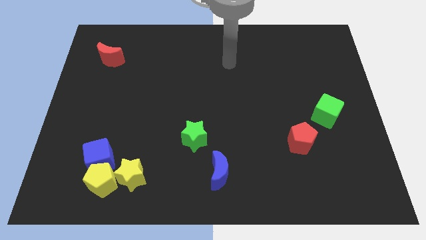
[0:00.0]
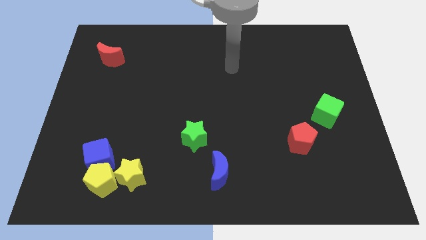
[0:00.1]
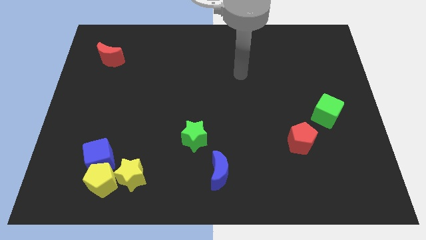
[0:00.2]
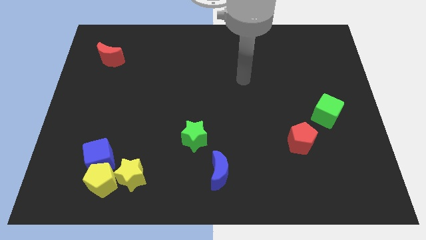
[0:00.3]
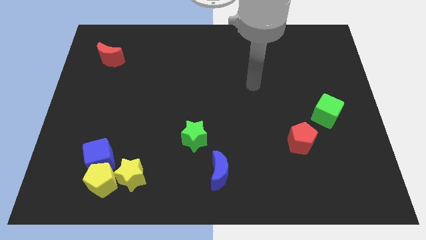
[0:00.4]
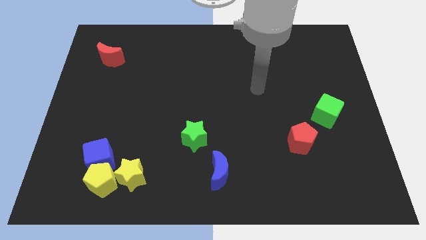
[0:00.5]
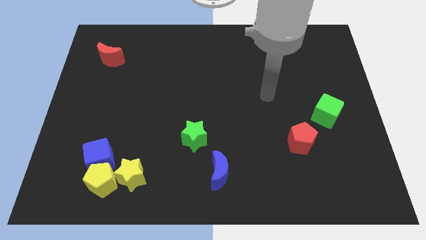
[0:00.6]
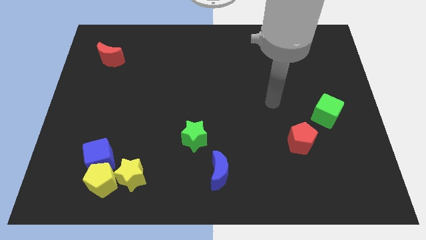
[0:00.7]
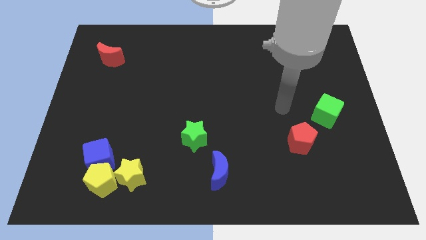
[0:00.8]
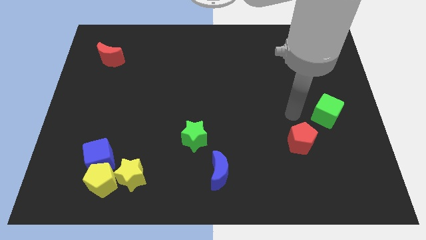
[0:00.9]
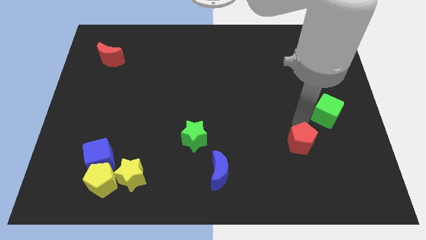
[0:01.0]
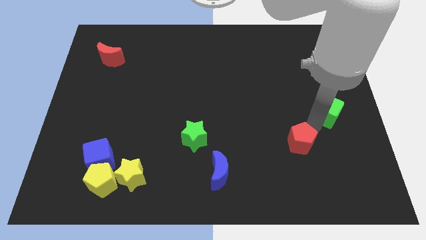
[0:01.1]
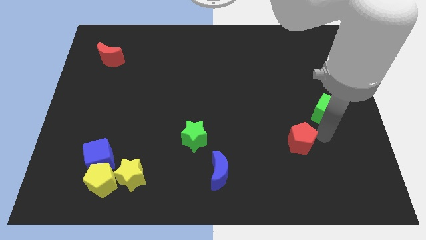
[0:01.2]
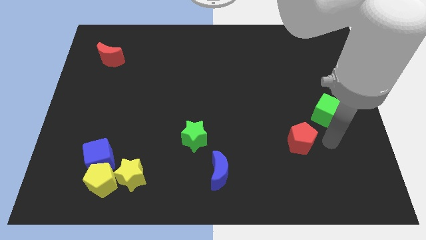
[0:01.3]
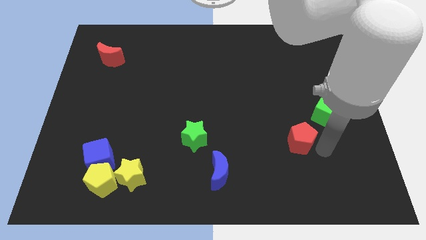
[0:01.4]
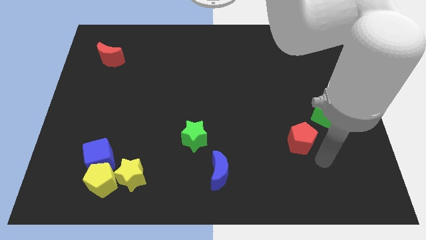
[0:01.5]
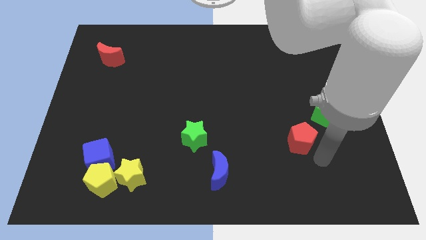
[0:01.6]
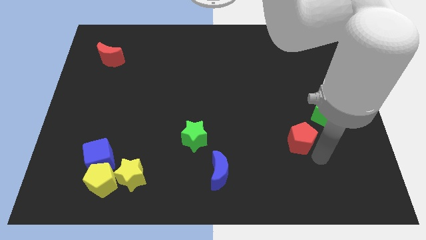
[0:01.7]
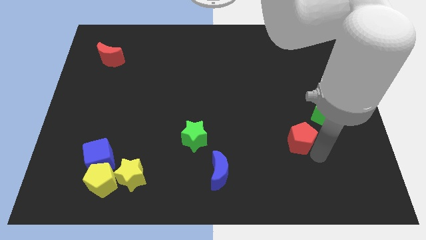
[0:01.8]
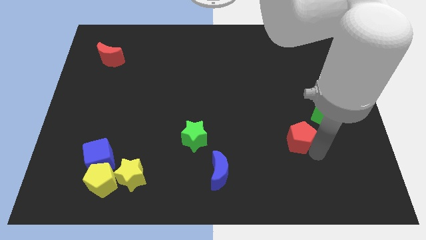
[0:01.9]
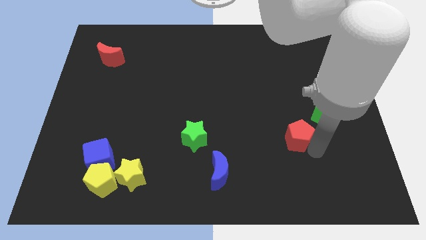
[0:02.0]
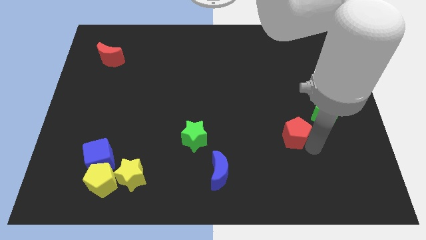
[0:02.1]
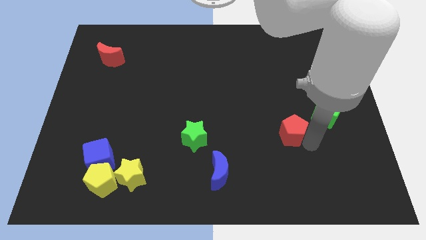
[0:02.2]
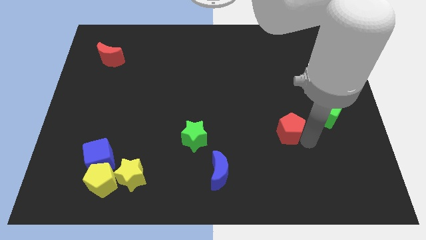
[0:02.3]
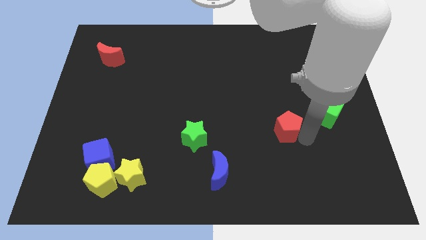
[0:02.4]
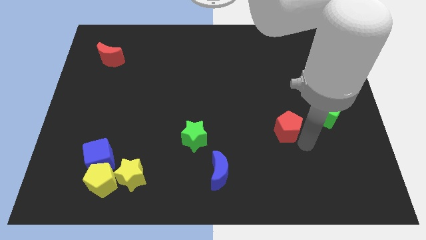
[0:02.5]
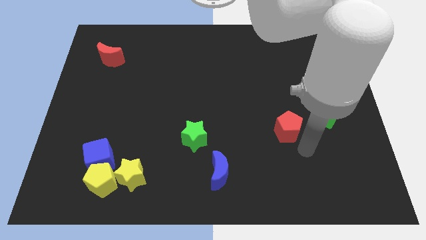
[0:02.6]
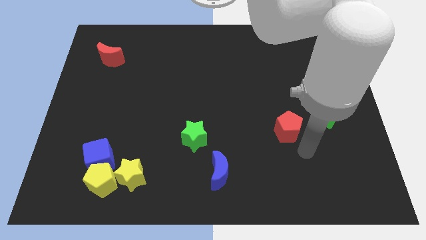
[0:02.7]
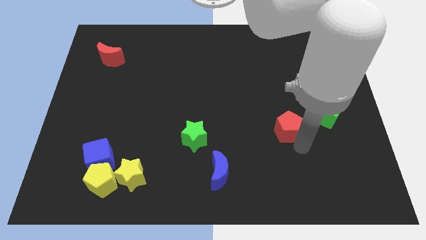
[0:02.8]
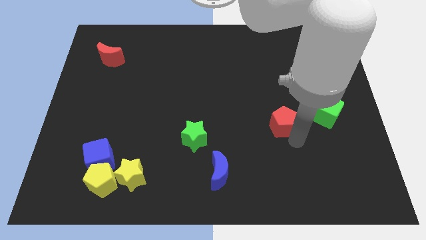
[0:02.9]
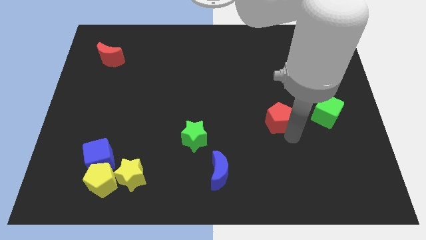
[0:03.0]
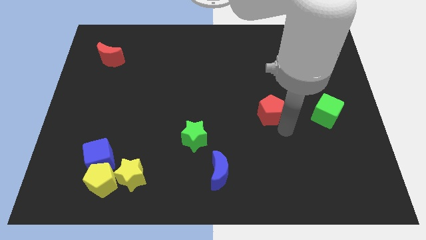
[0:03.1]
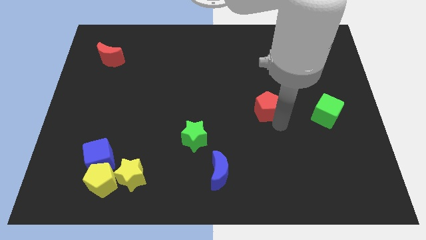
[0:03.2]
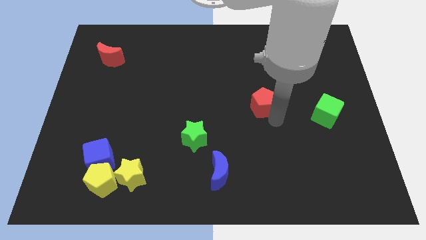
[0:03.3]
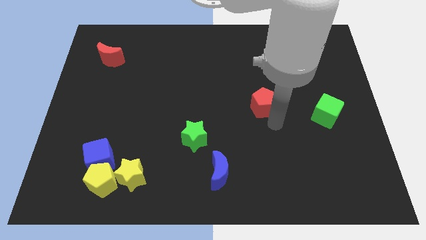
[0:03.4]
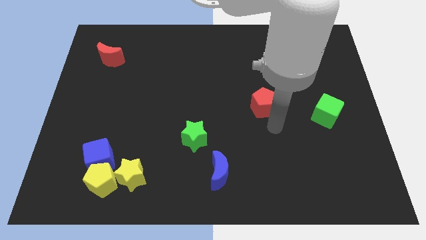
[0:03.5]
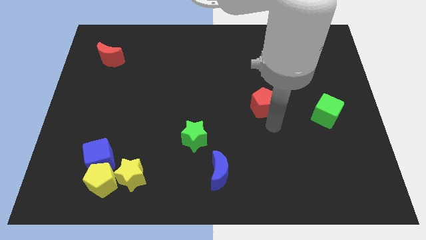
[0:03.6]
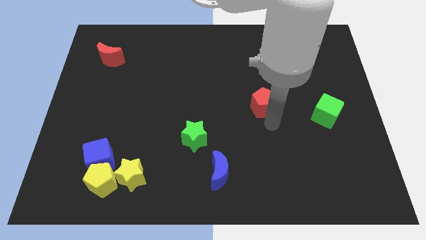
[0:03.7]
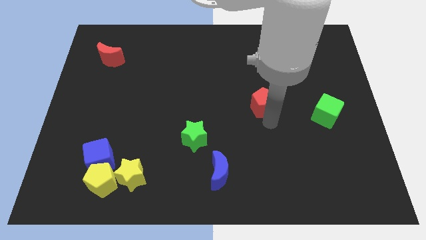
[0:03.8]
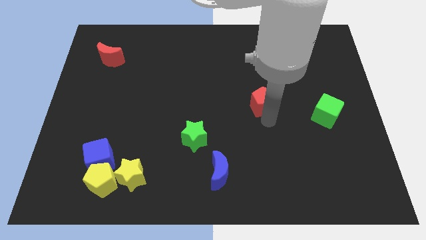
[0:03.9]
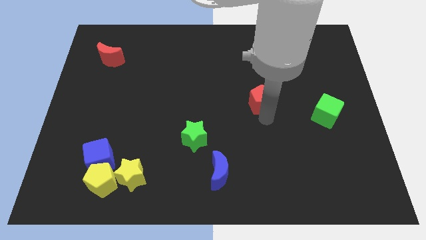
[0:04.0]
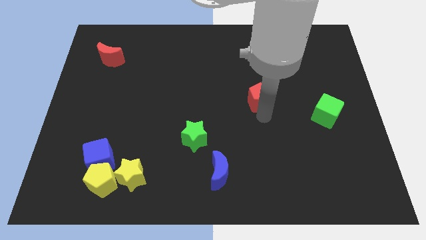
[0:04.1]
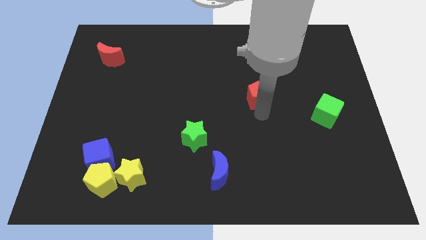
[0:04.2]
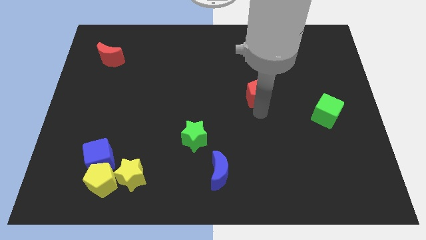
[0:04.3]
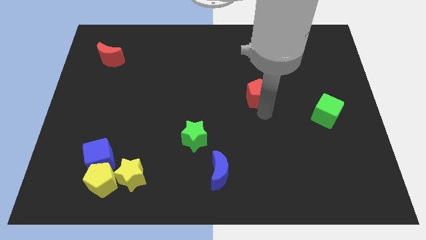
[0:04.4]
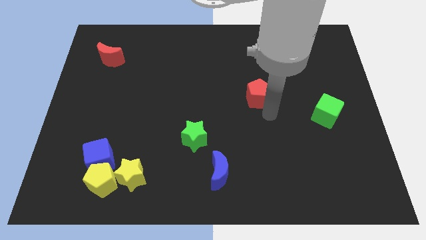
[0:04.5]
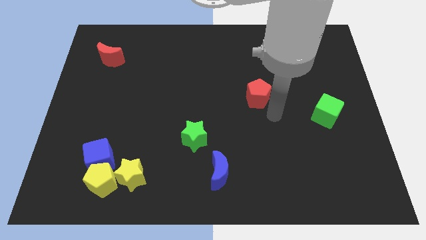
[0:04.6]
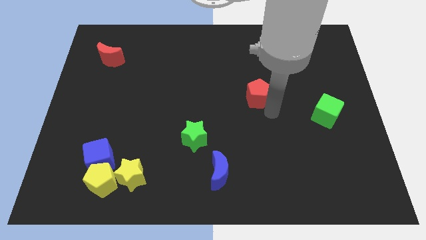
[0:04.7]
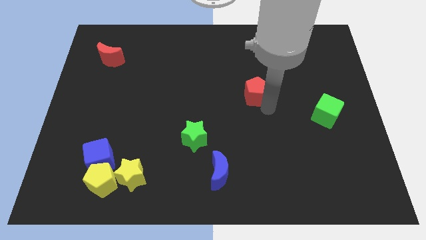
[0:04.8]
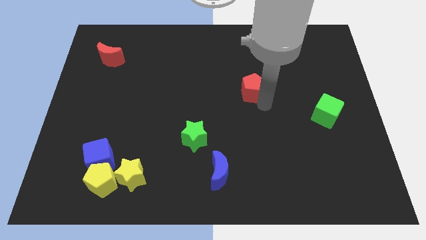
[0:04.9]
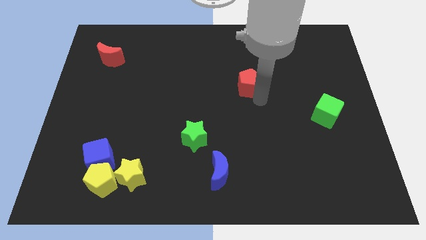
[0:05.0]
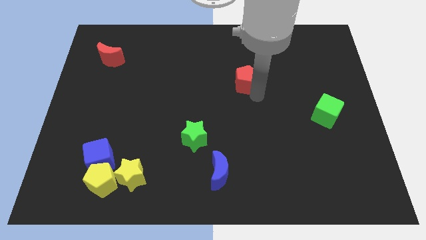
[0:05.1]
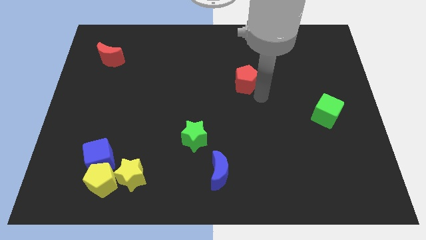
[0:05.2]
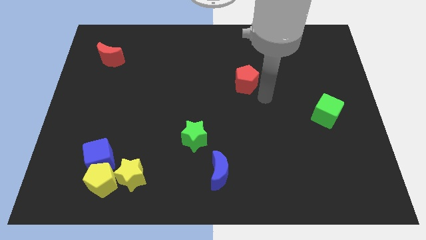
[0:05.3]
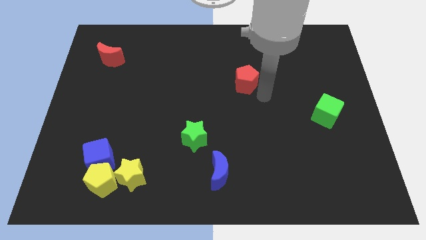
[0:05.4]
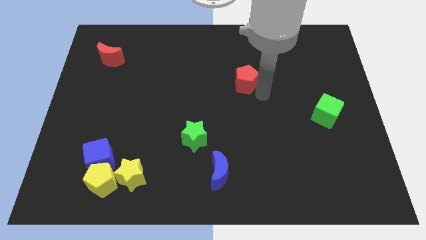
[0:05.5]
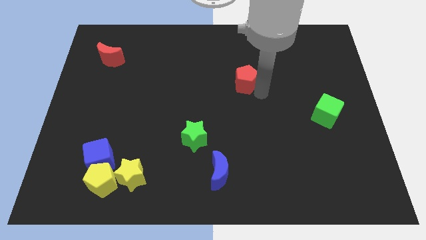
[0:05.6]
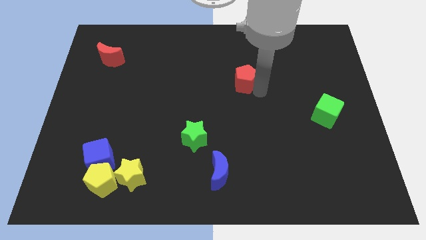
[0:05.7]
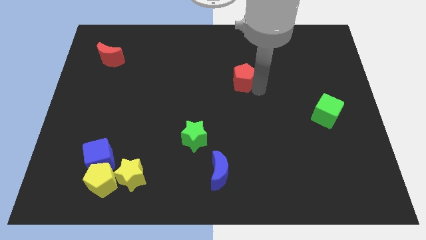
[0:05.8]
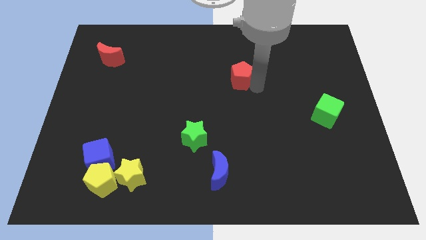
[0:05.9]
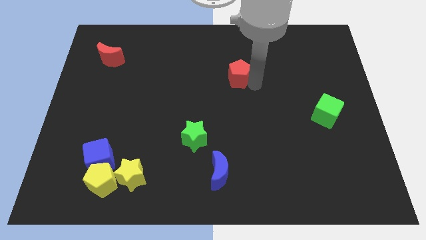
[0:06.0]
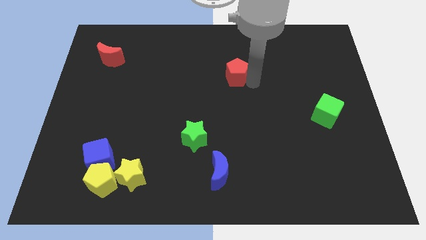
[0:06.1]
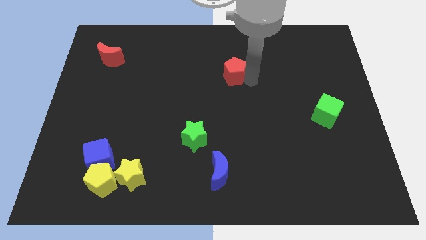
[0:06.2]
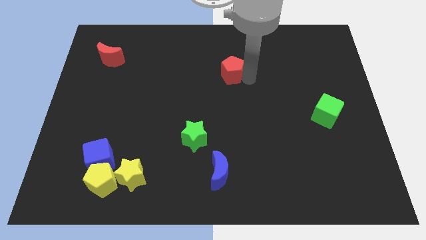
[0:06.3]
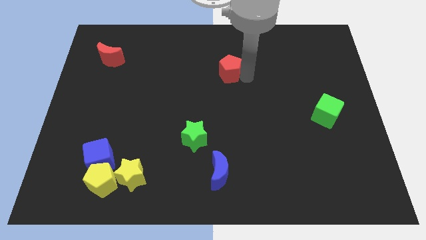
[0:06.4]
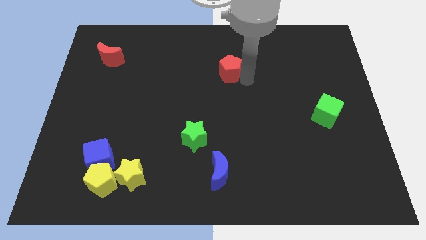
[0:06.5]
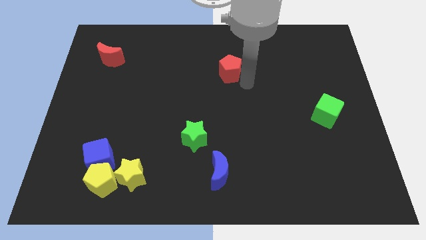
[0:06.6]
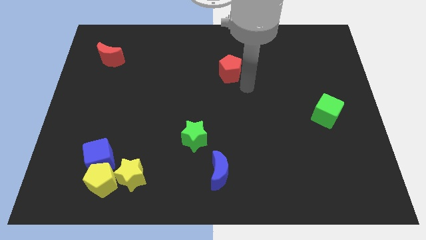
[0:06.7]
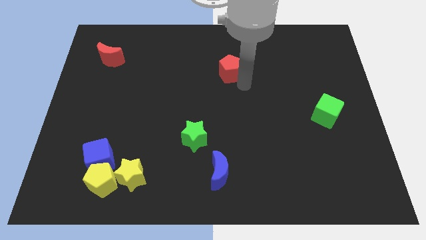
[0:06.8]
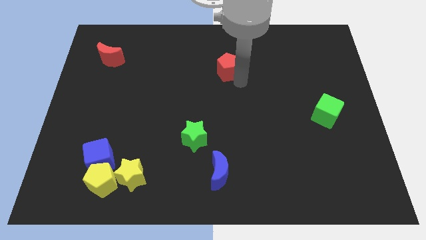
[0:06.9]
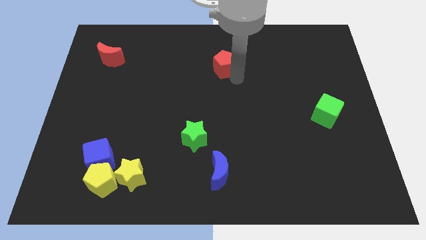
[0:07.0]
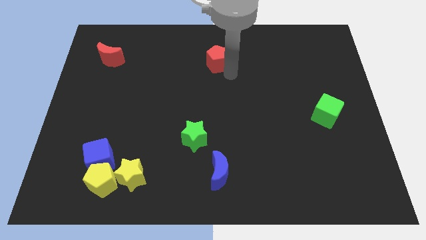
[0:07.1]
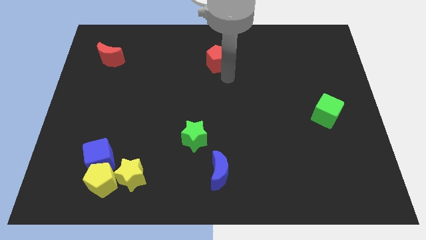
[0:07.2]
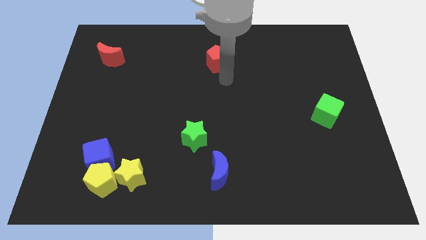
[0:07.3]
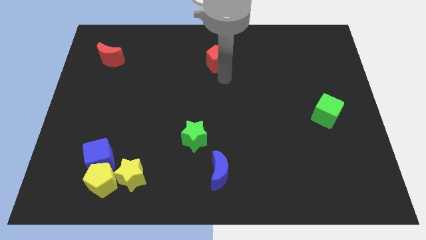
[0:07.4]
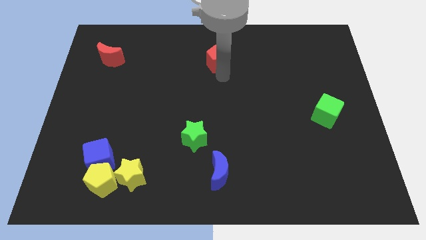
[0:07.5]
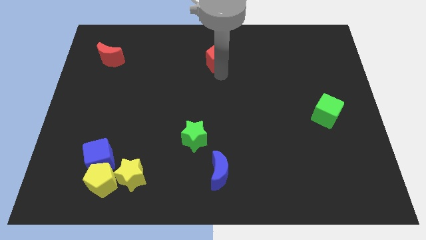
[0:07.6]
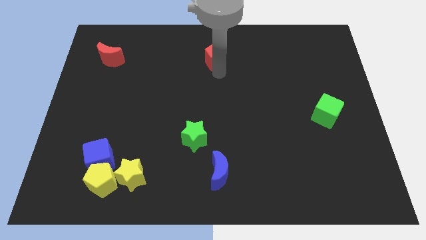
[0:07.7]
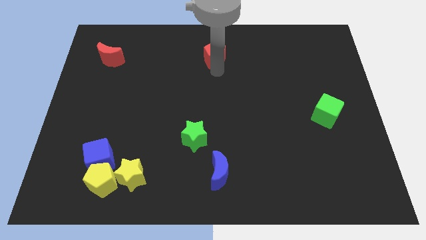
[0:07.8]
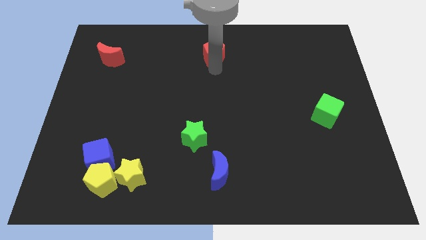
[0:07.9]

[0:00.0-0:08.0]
push the red pentagon to the towards your base
